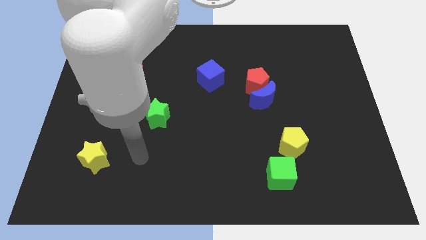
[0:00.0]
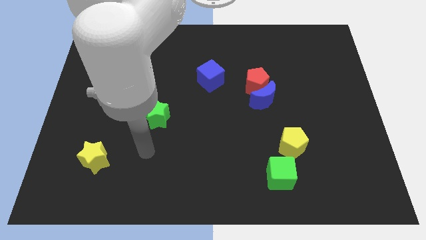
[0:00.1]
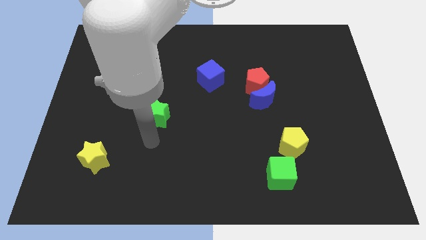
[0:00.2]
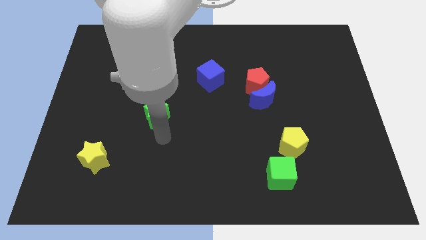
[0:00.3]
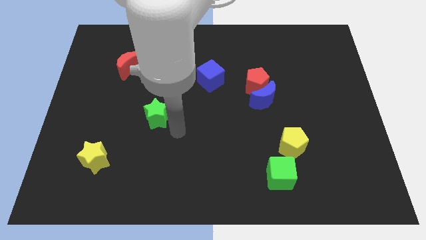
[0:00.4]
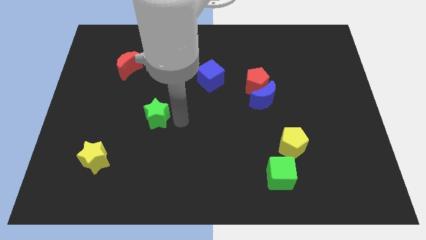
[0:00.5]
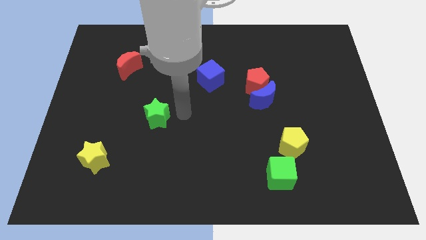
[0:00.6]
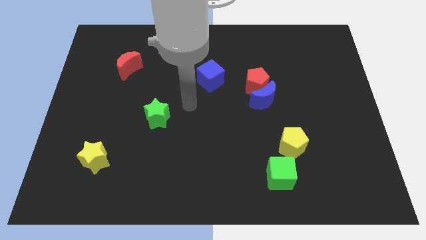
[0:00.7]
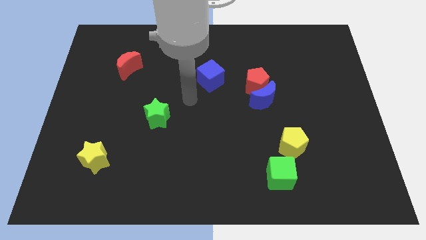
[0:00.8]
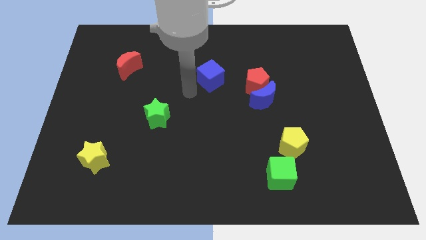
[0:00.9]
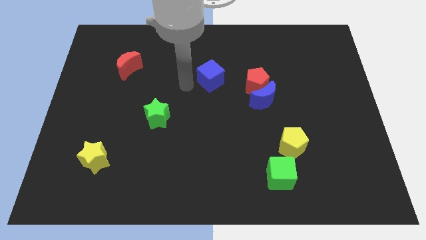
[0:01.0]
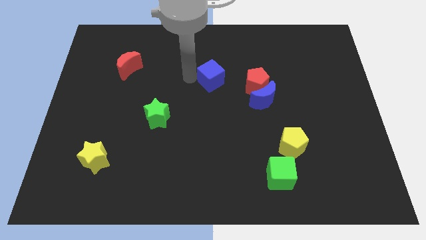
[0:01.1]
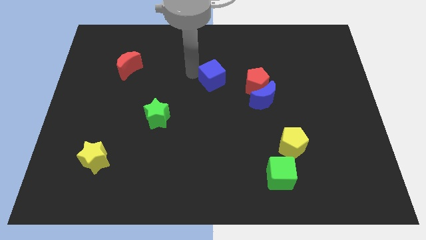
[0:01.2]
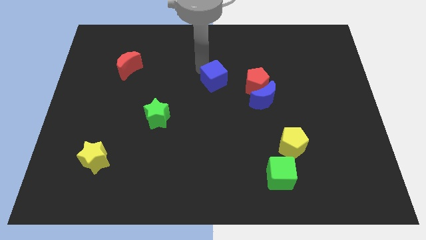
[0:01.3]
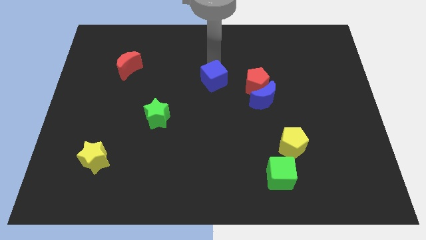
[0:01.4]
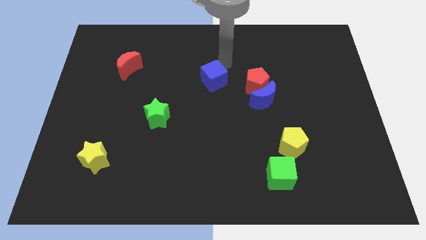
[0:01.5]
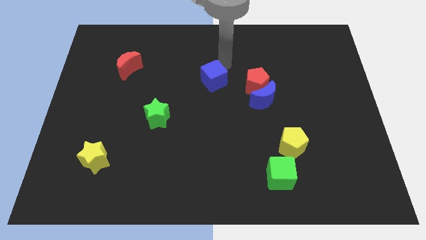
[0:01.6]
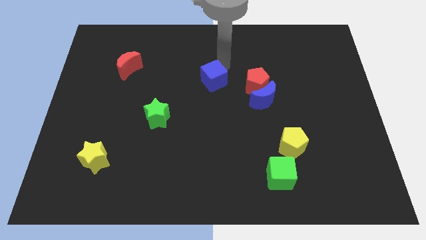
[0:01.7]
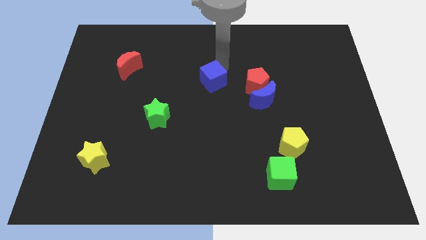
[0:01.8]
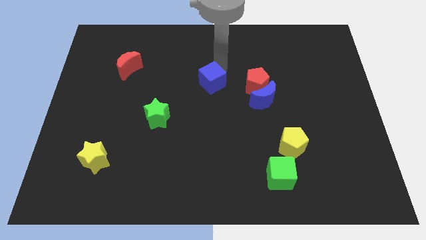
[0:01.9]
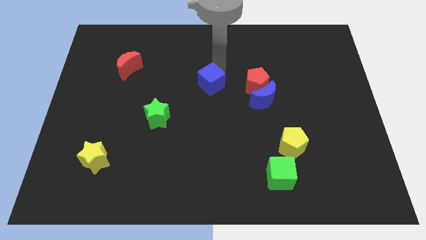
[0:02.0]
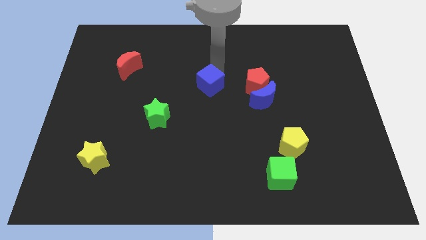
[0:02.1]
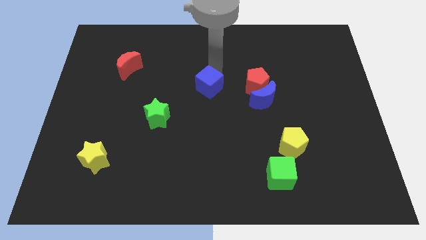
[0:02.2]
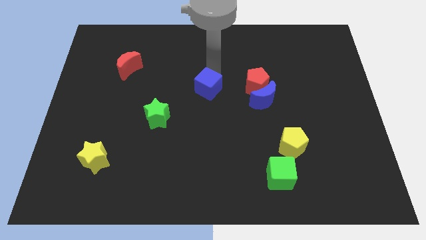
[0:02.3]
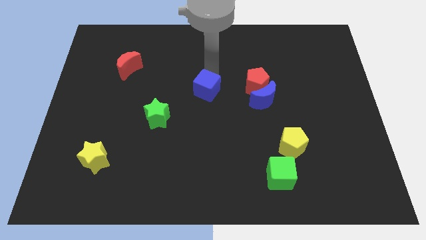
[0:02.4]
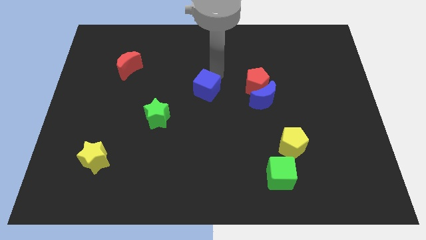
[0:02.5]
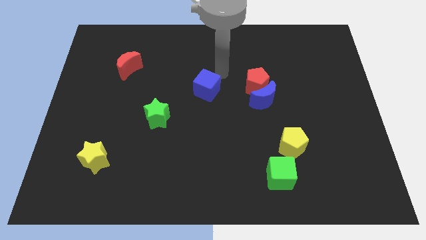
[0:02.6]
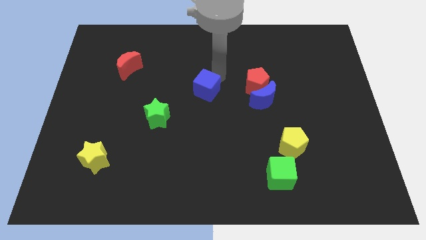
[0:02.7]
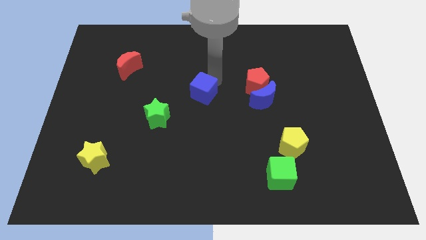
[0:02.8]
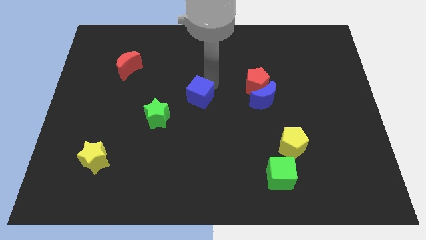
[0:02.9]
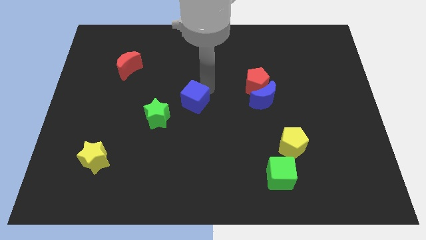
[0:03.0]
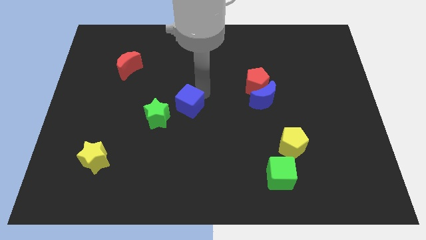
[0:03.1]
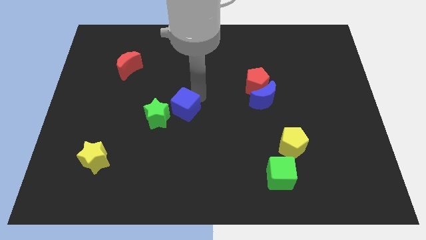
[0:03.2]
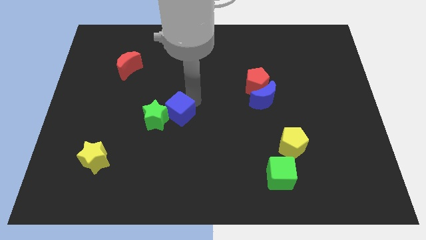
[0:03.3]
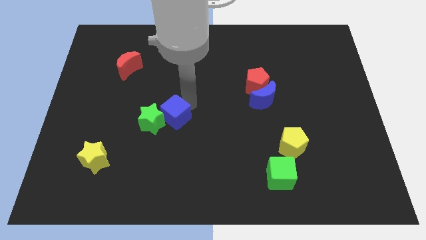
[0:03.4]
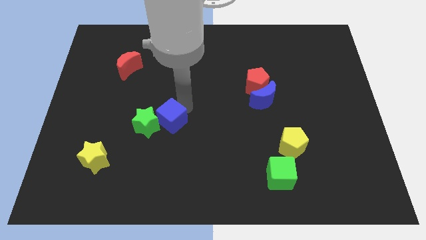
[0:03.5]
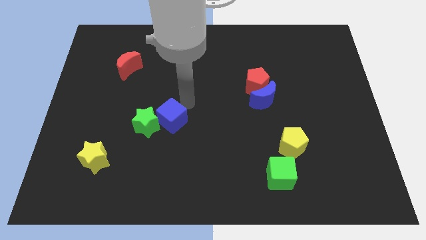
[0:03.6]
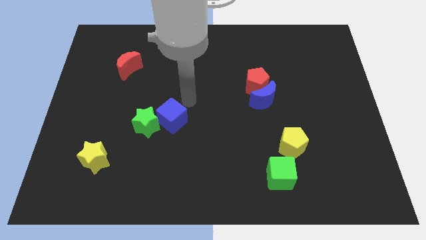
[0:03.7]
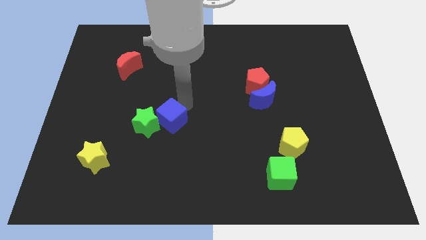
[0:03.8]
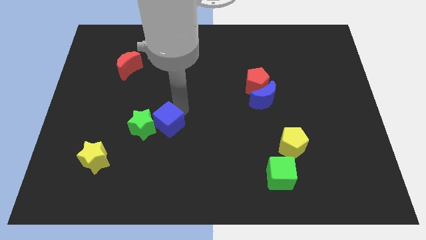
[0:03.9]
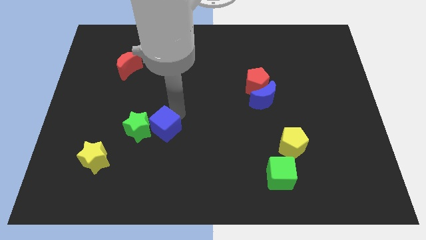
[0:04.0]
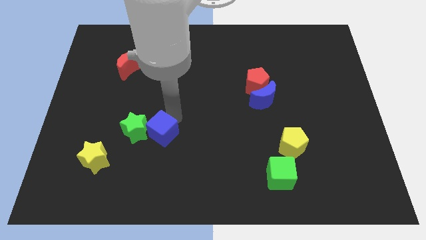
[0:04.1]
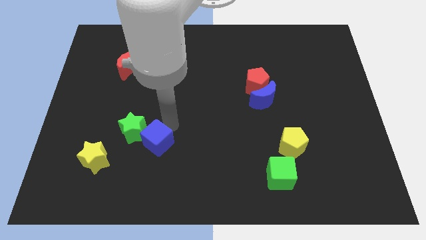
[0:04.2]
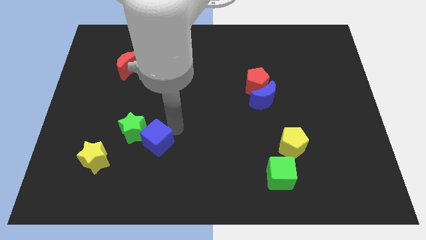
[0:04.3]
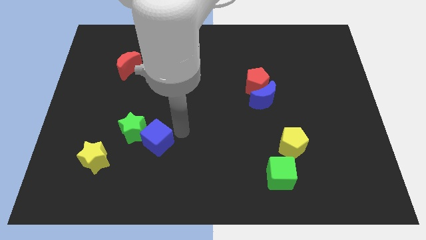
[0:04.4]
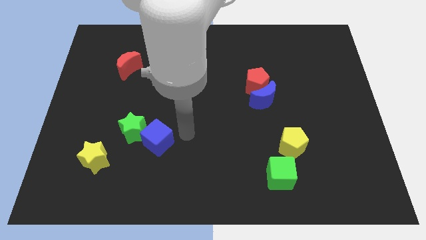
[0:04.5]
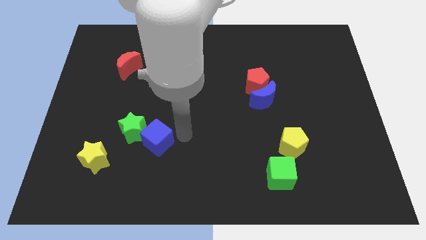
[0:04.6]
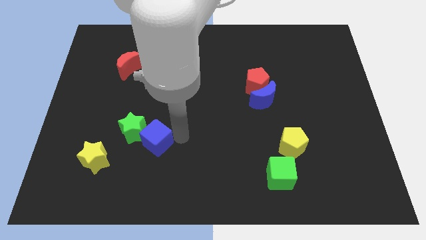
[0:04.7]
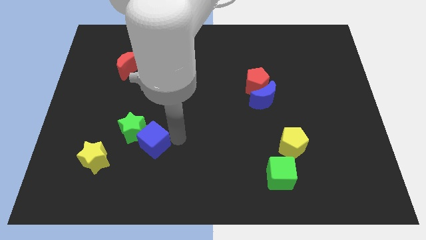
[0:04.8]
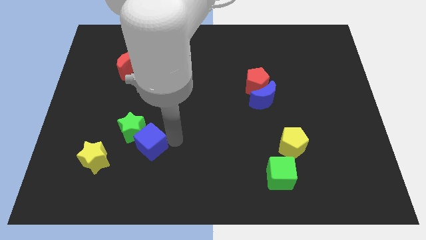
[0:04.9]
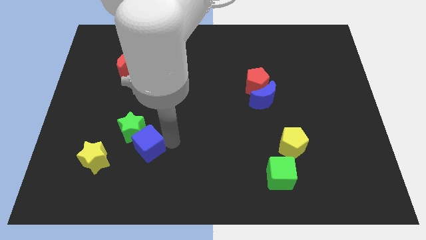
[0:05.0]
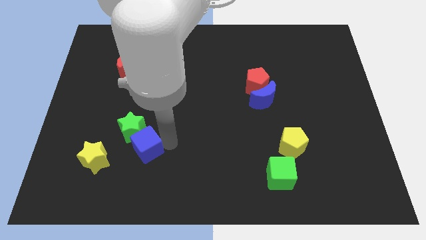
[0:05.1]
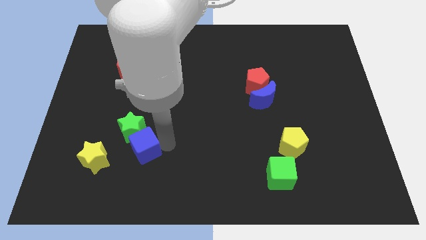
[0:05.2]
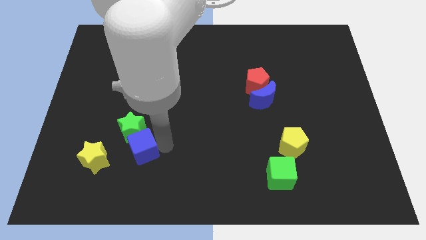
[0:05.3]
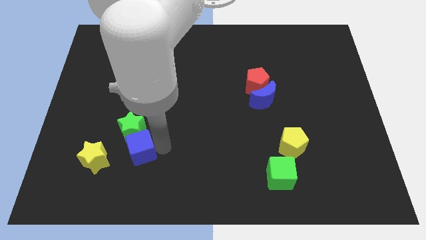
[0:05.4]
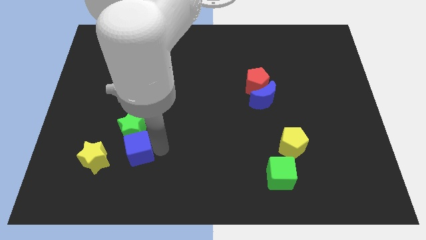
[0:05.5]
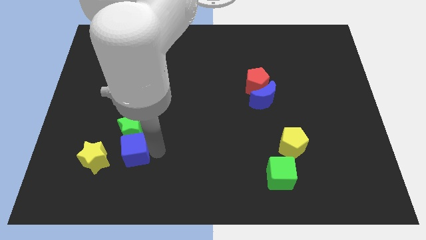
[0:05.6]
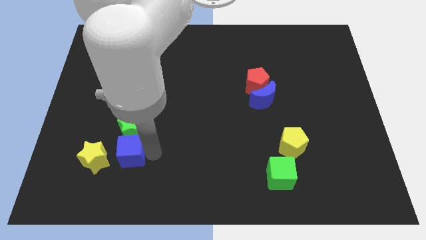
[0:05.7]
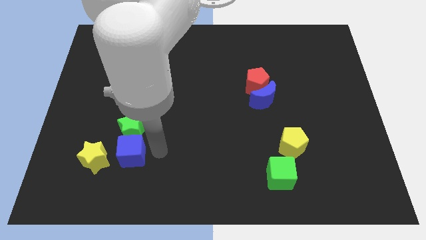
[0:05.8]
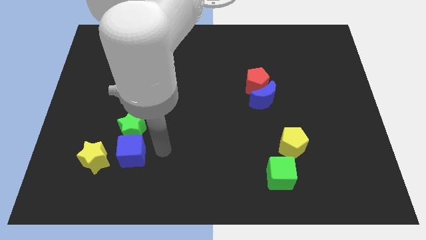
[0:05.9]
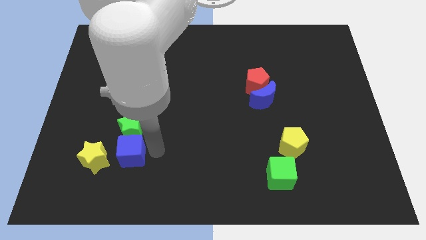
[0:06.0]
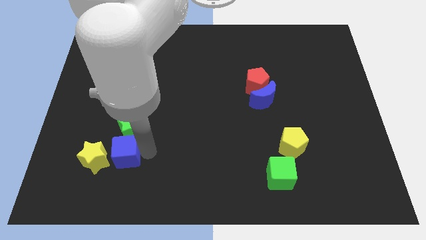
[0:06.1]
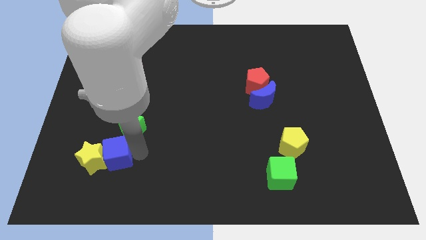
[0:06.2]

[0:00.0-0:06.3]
push the blue cube next to the yellow star

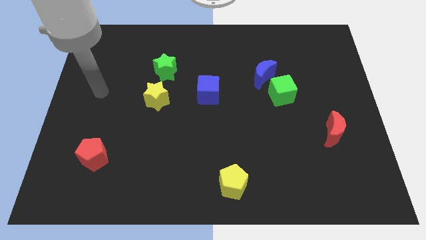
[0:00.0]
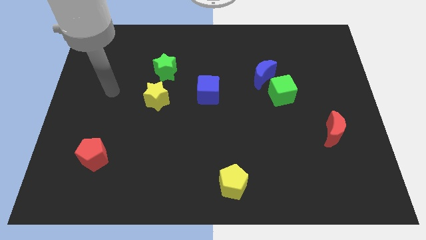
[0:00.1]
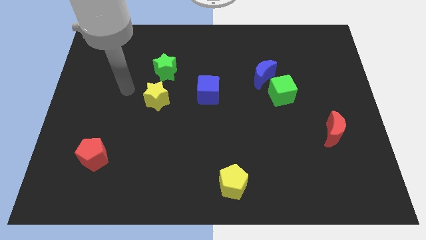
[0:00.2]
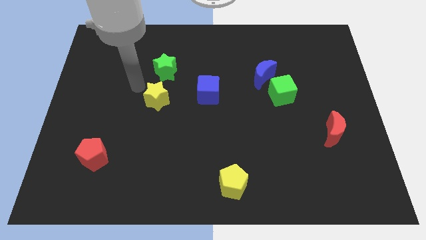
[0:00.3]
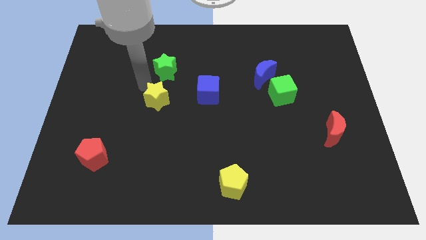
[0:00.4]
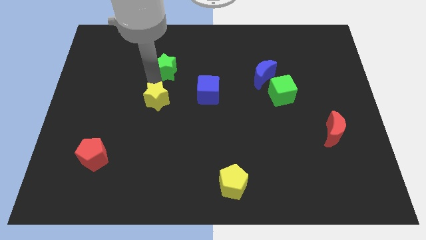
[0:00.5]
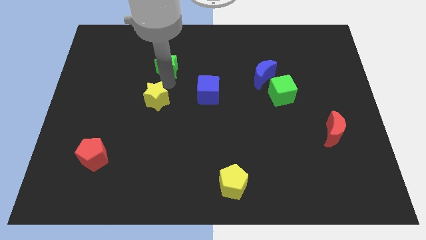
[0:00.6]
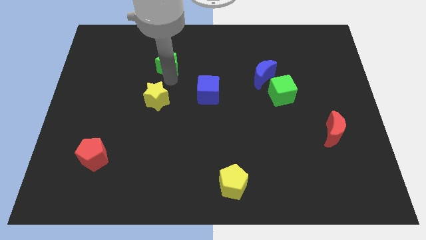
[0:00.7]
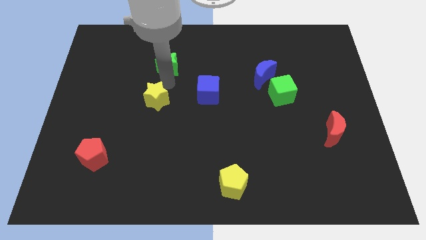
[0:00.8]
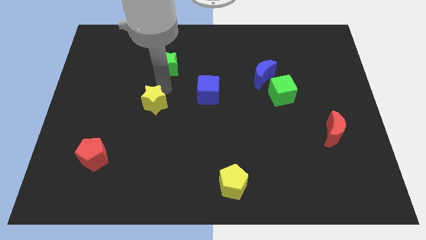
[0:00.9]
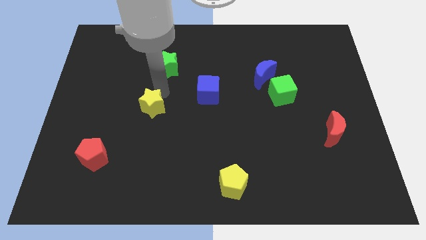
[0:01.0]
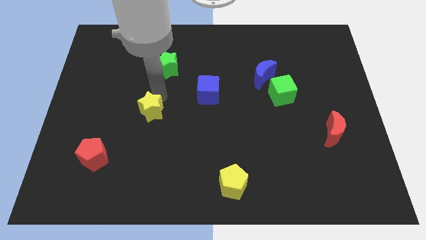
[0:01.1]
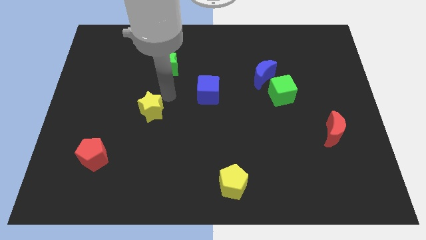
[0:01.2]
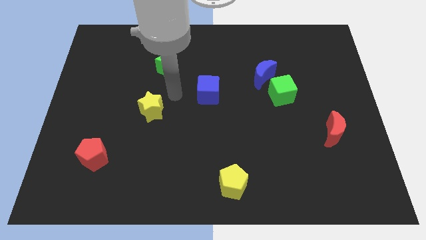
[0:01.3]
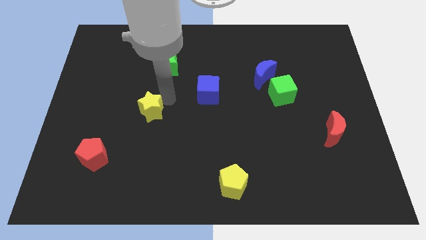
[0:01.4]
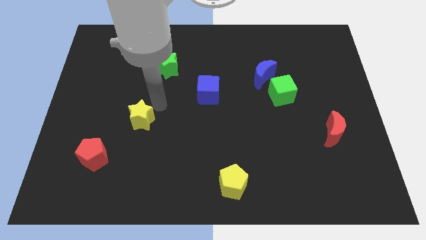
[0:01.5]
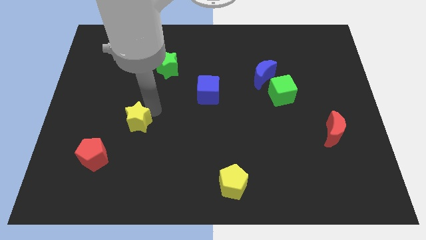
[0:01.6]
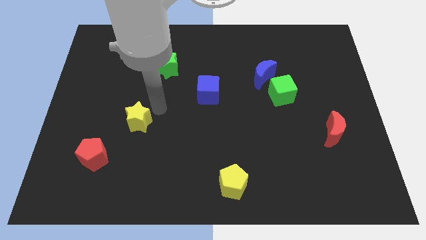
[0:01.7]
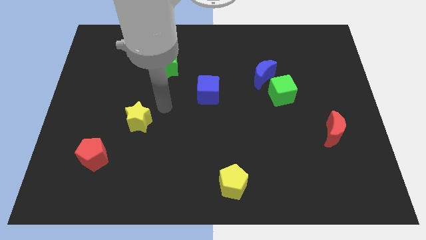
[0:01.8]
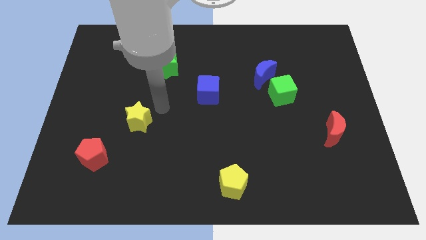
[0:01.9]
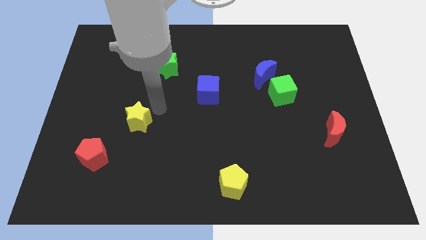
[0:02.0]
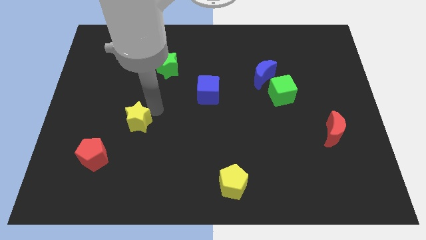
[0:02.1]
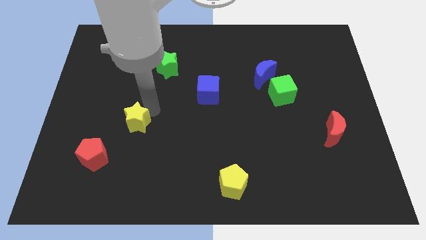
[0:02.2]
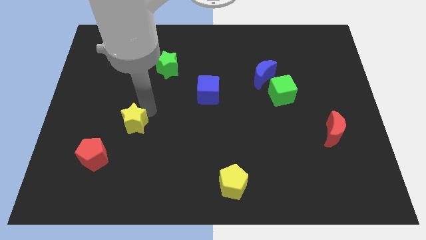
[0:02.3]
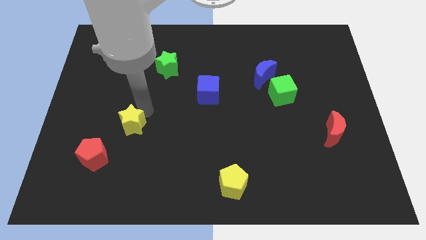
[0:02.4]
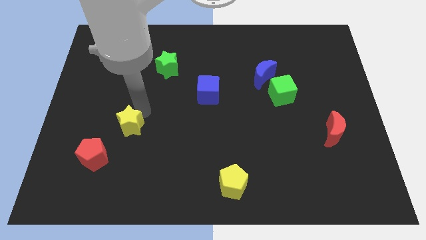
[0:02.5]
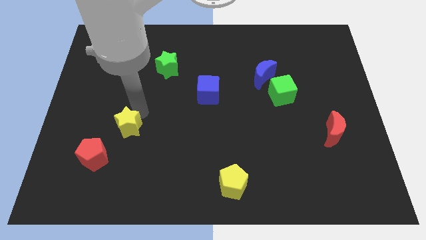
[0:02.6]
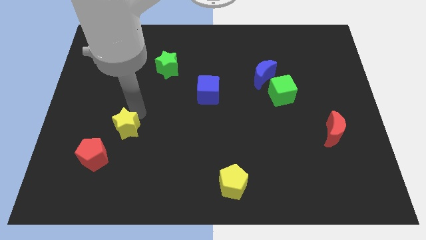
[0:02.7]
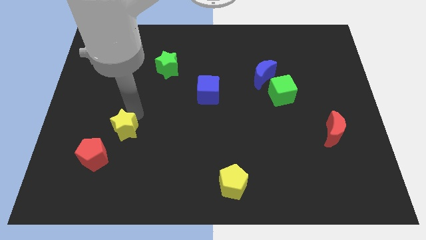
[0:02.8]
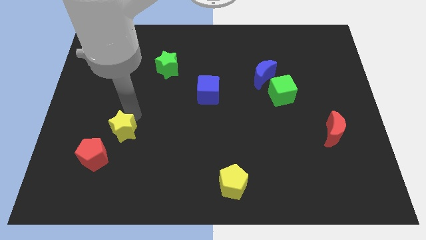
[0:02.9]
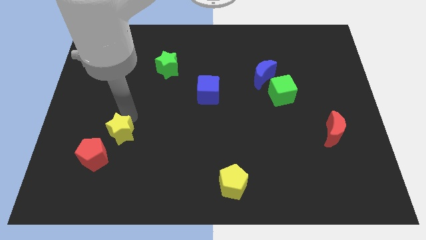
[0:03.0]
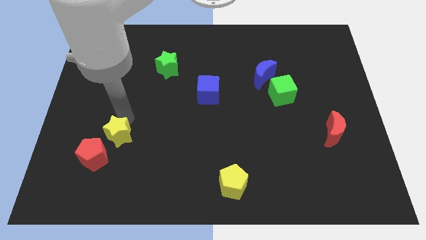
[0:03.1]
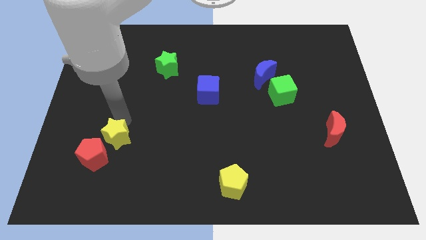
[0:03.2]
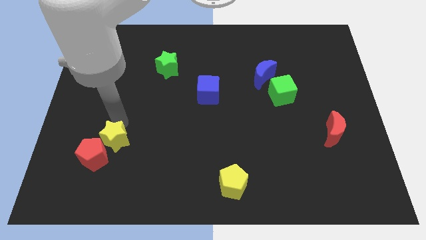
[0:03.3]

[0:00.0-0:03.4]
push the yellow star to the red pentagon
